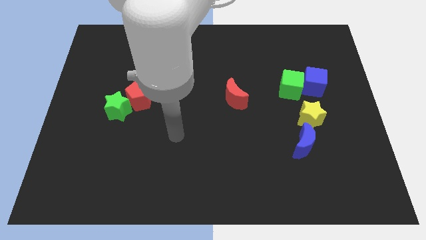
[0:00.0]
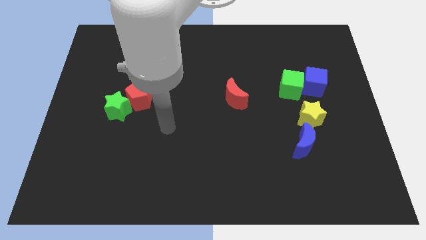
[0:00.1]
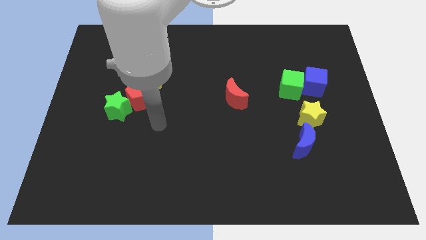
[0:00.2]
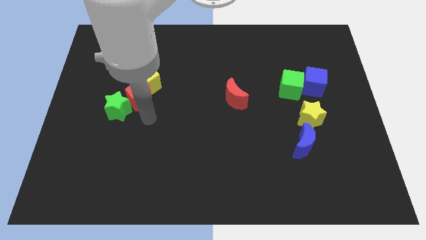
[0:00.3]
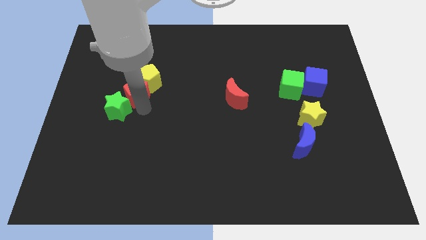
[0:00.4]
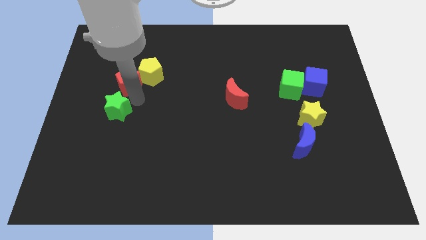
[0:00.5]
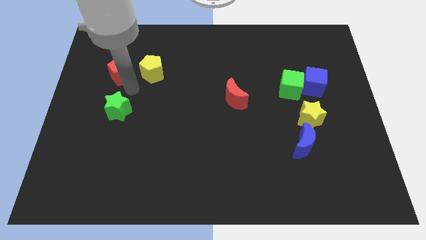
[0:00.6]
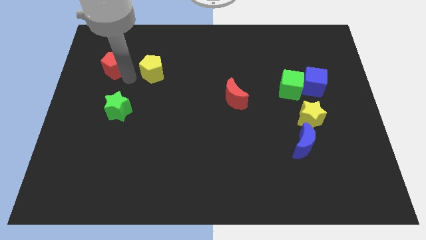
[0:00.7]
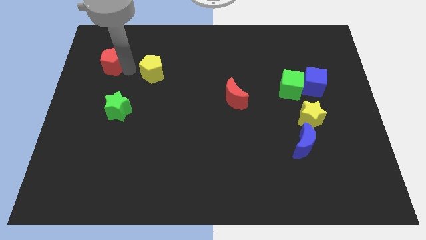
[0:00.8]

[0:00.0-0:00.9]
move the yellow pentagon away from the red pentagon

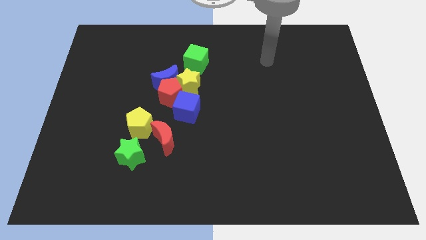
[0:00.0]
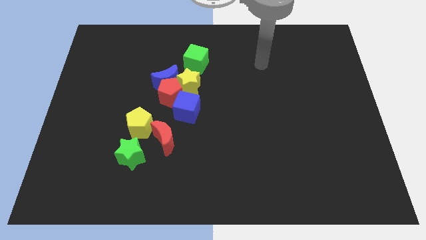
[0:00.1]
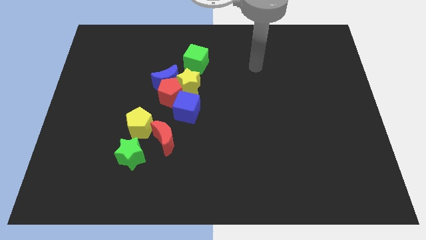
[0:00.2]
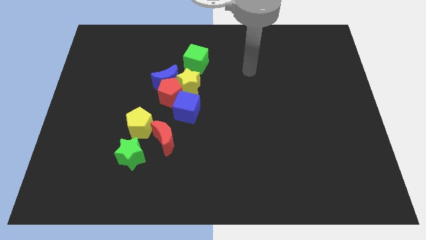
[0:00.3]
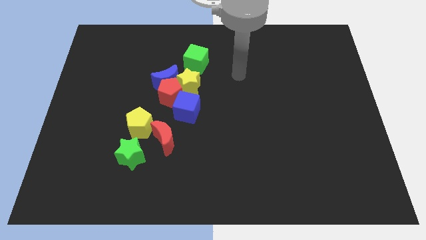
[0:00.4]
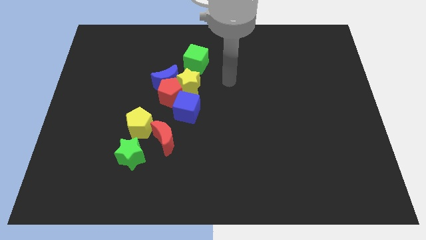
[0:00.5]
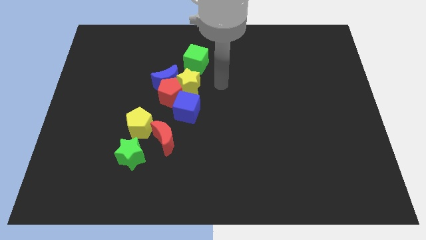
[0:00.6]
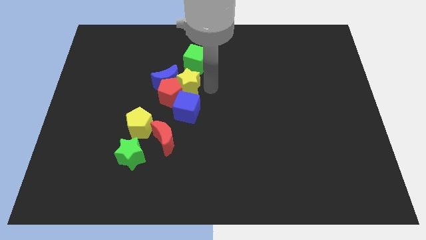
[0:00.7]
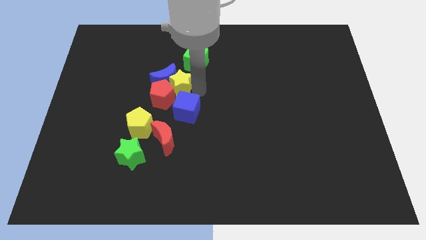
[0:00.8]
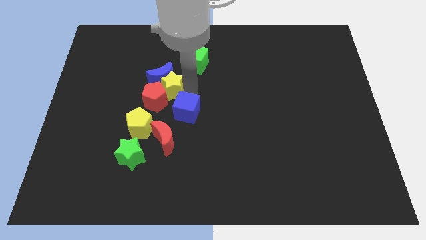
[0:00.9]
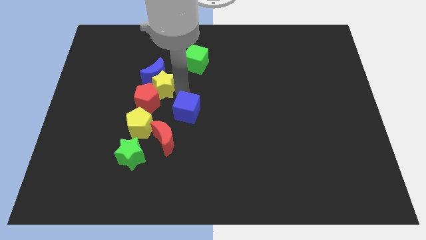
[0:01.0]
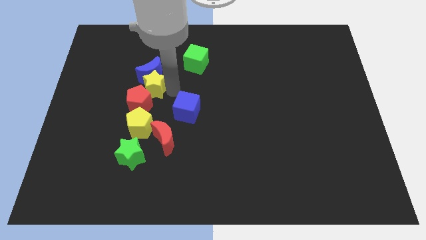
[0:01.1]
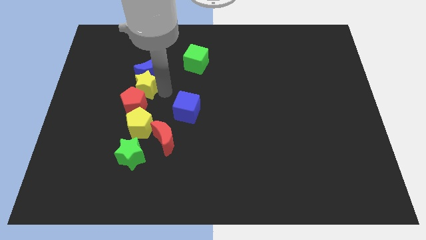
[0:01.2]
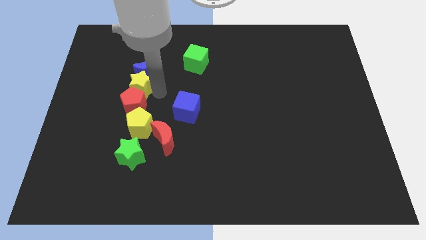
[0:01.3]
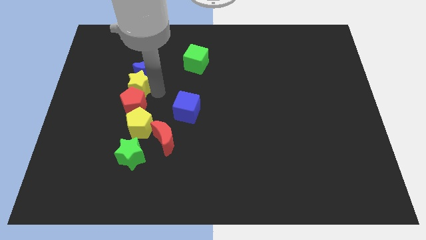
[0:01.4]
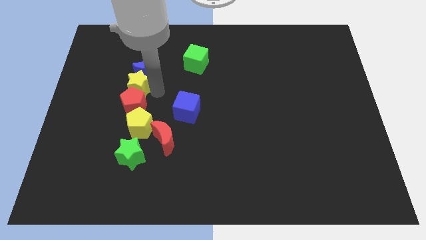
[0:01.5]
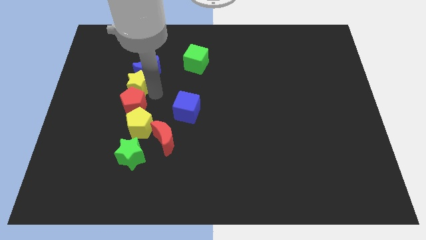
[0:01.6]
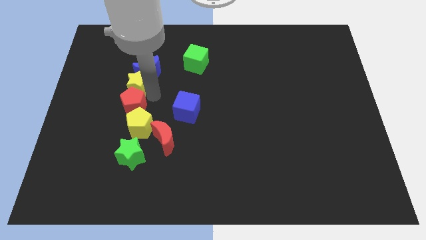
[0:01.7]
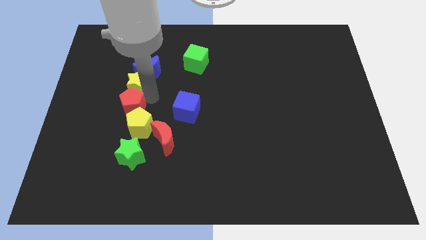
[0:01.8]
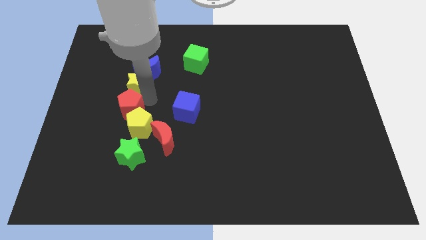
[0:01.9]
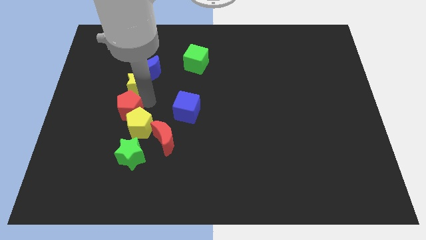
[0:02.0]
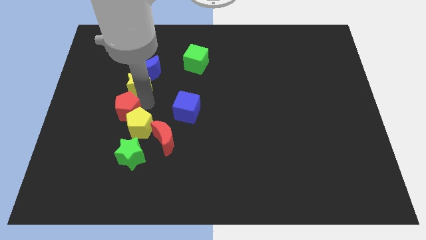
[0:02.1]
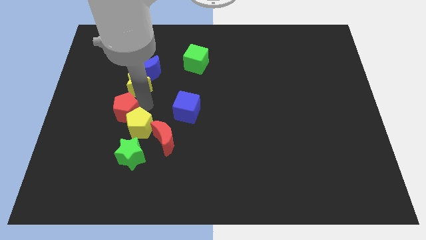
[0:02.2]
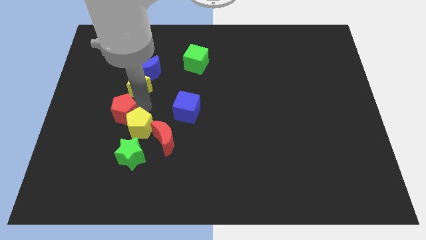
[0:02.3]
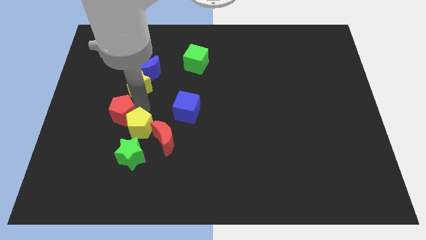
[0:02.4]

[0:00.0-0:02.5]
move the red pentagon away from the clump

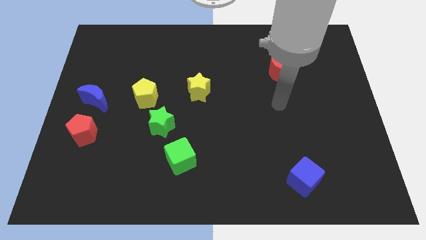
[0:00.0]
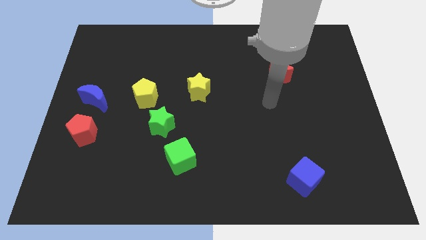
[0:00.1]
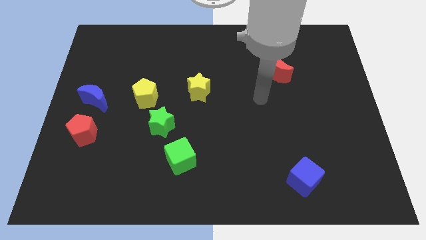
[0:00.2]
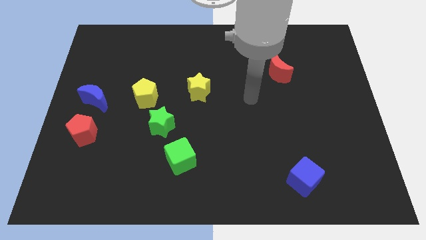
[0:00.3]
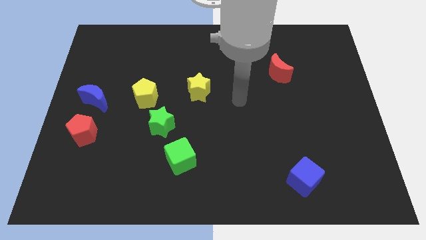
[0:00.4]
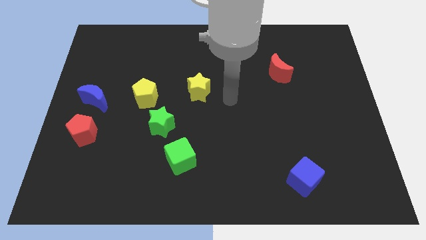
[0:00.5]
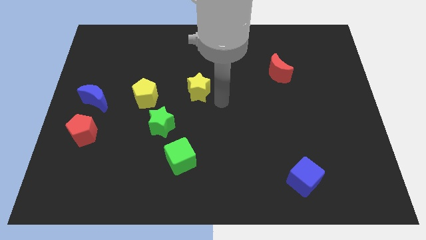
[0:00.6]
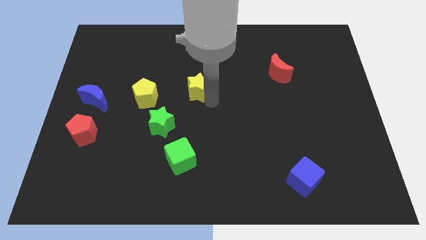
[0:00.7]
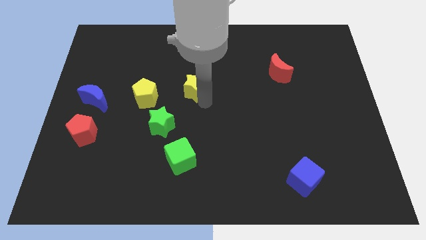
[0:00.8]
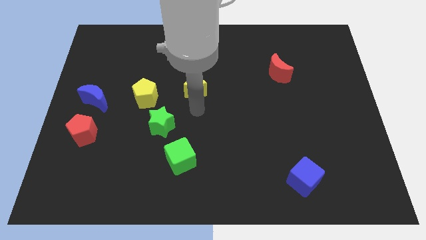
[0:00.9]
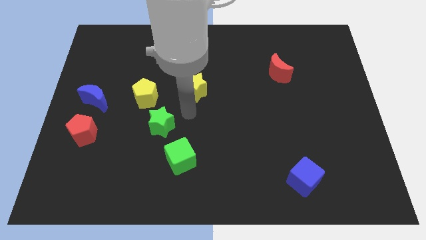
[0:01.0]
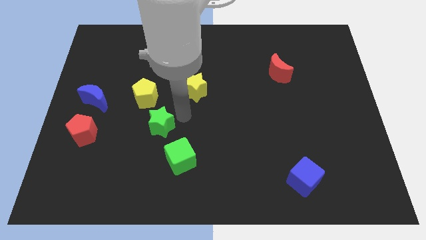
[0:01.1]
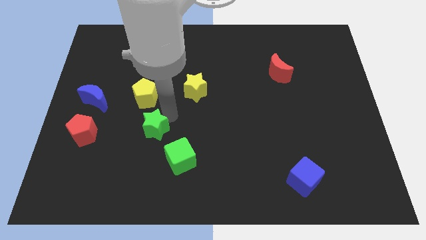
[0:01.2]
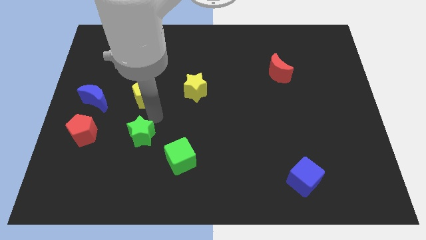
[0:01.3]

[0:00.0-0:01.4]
pull the yellow pentagon apart from the green star

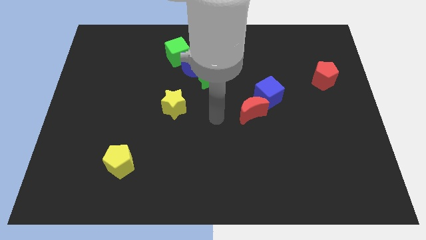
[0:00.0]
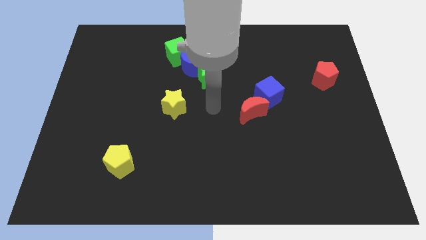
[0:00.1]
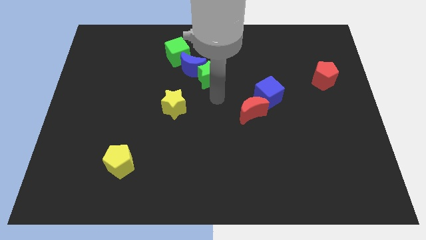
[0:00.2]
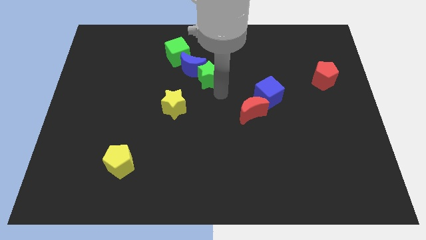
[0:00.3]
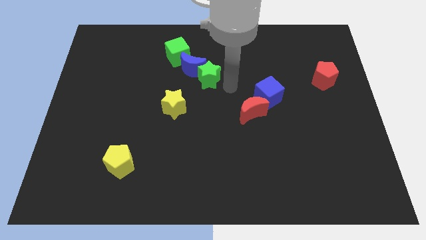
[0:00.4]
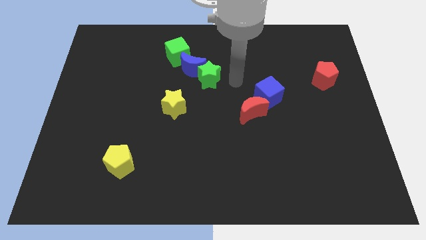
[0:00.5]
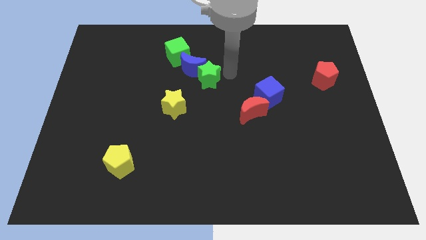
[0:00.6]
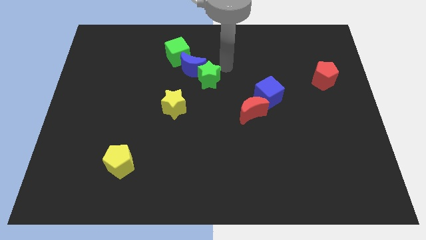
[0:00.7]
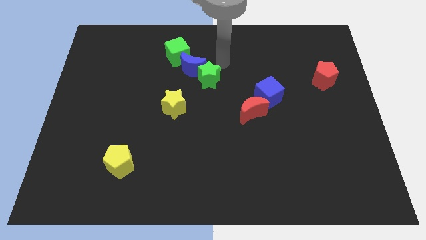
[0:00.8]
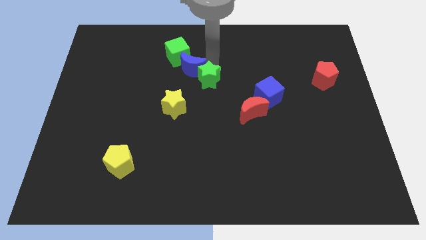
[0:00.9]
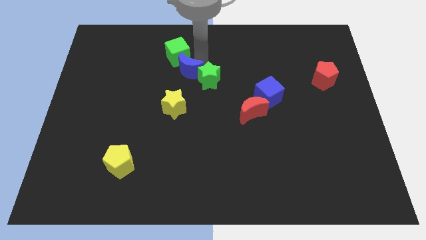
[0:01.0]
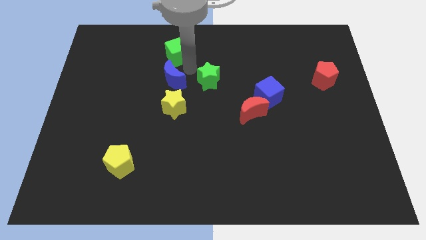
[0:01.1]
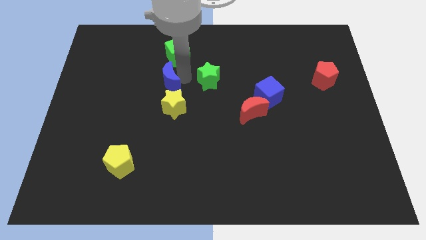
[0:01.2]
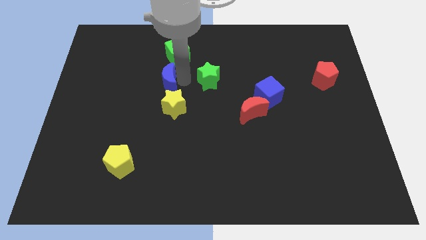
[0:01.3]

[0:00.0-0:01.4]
move the green star away from the blue moon

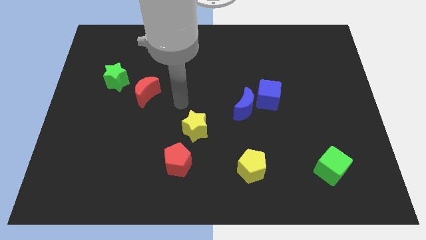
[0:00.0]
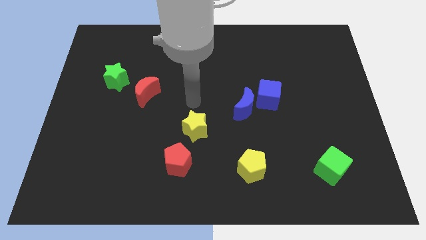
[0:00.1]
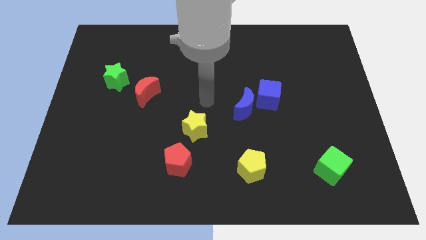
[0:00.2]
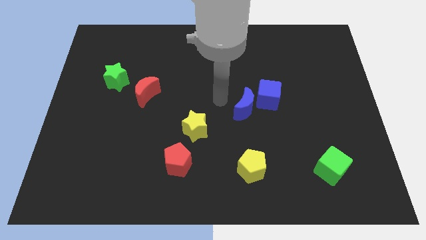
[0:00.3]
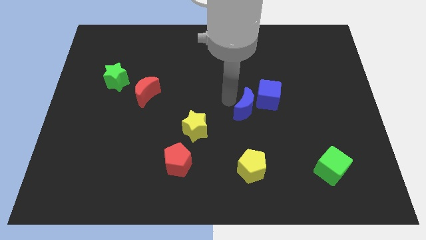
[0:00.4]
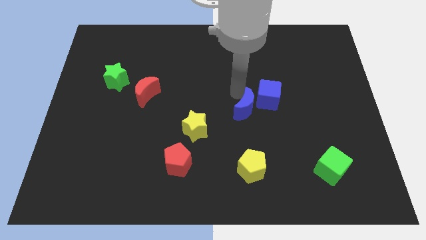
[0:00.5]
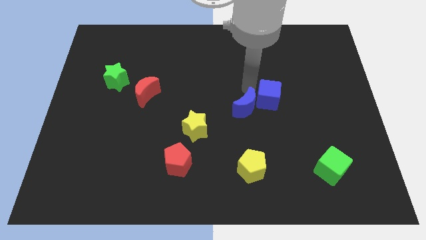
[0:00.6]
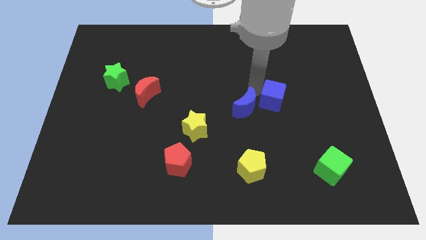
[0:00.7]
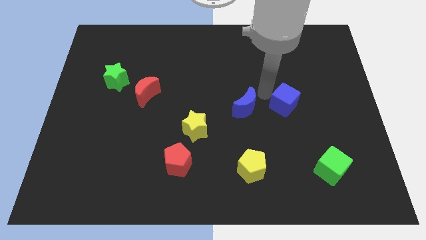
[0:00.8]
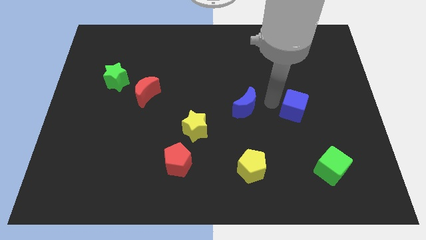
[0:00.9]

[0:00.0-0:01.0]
move the blue moon away from the blue cube

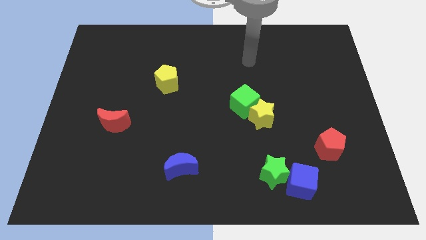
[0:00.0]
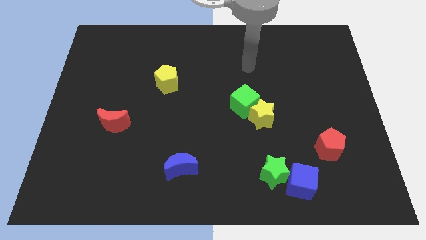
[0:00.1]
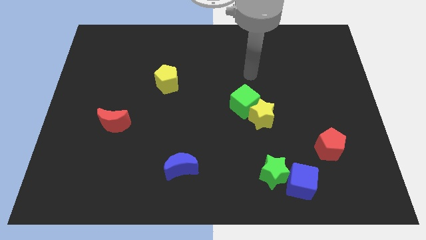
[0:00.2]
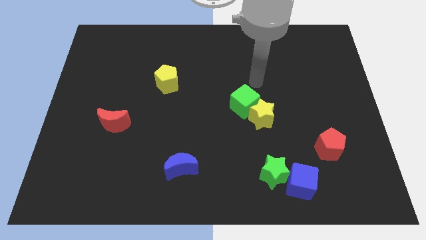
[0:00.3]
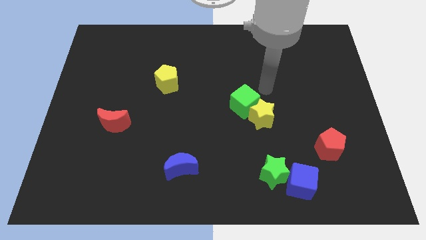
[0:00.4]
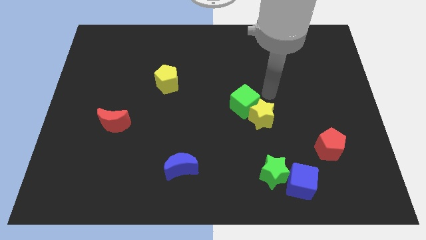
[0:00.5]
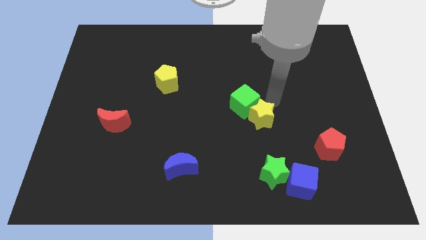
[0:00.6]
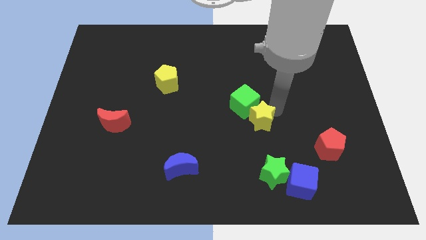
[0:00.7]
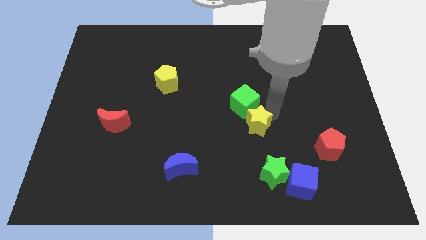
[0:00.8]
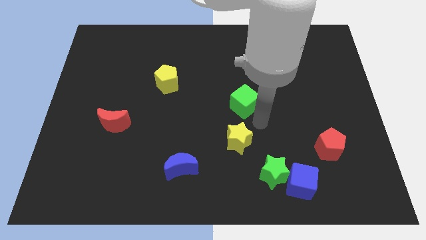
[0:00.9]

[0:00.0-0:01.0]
move the green cube away from the yellow star

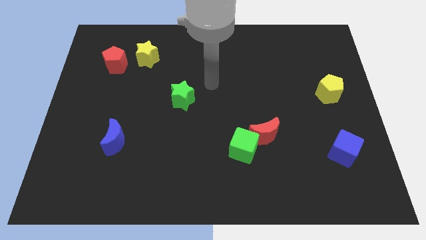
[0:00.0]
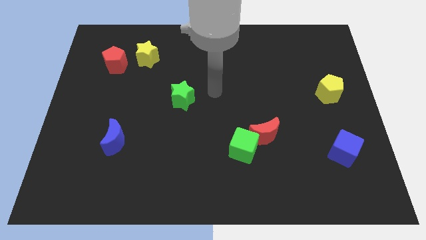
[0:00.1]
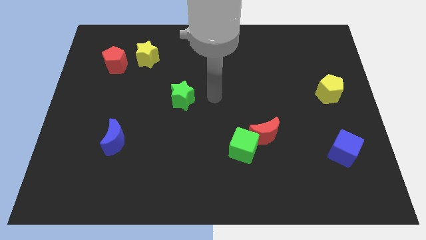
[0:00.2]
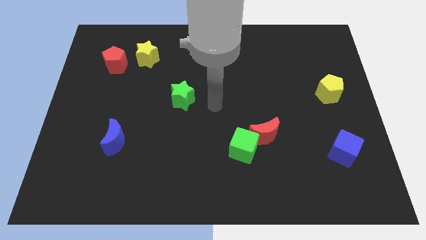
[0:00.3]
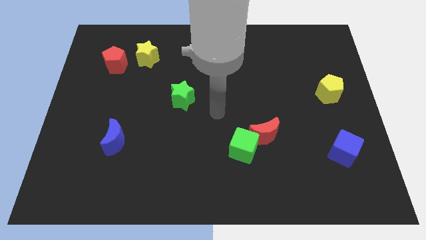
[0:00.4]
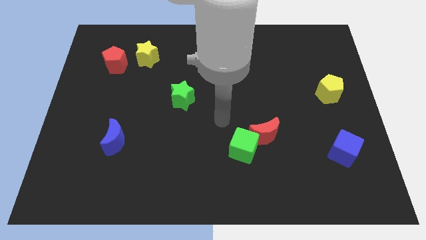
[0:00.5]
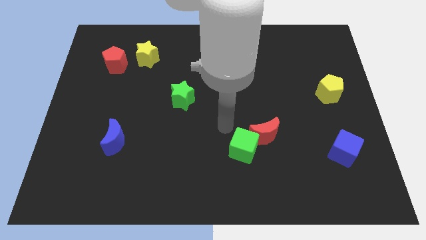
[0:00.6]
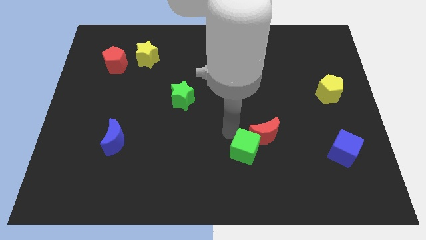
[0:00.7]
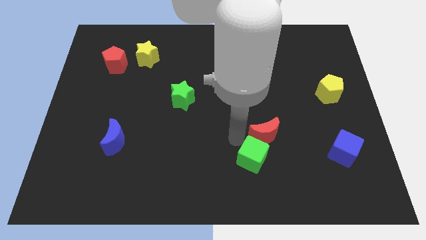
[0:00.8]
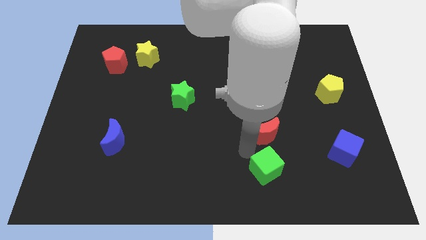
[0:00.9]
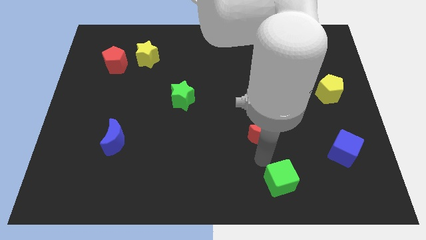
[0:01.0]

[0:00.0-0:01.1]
separate the red moon from the green cube
